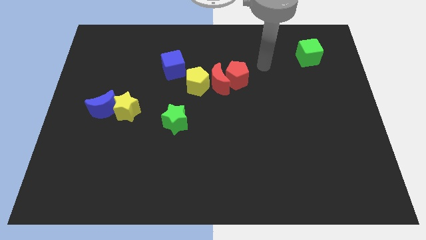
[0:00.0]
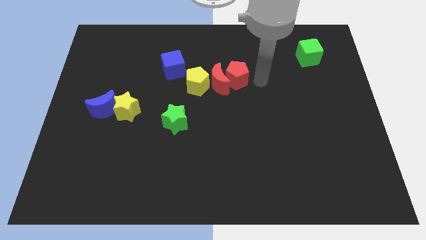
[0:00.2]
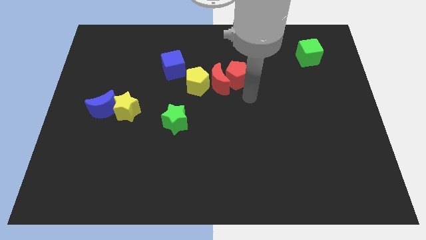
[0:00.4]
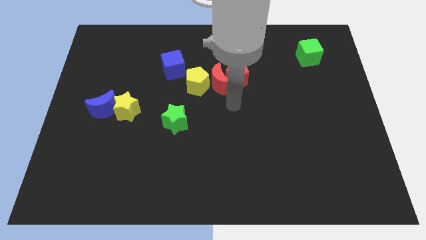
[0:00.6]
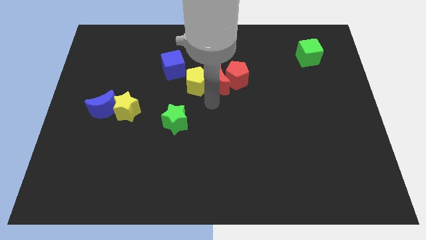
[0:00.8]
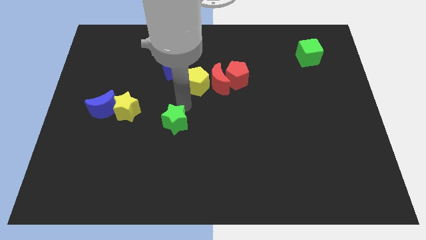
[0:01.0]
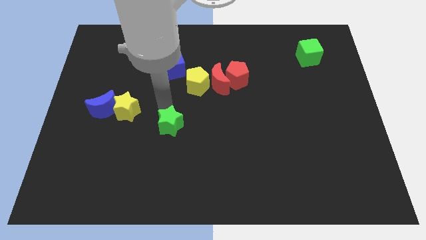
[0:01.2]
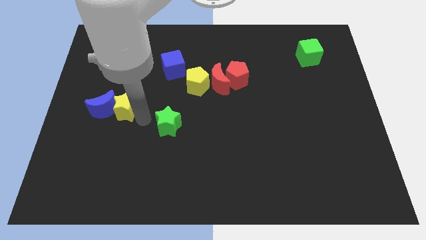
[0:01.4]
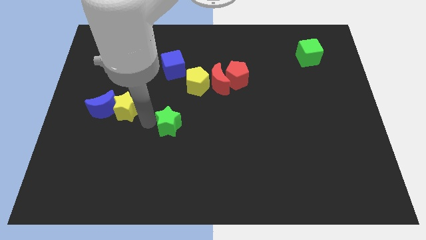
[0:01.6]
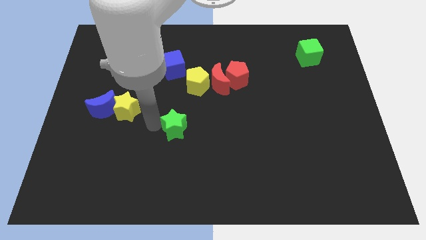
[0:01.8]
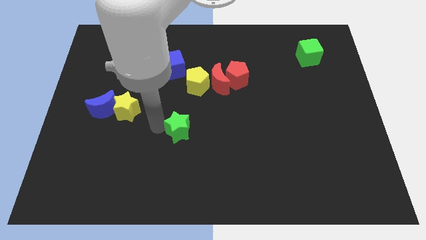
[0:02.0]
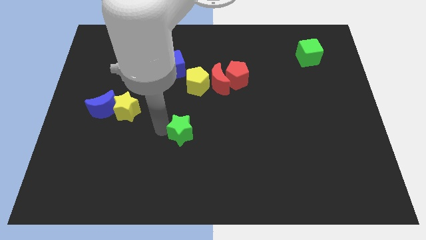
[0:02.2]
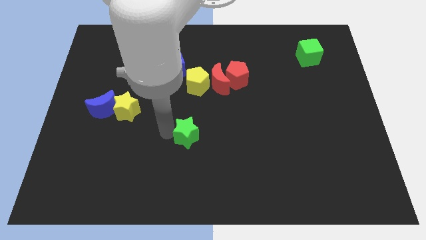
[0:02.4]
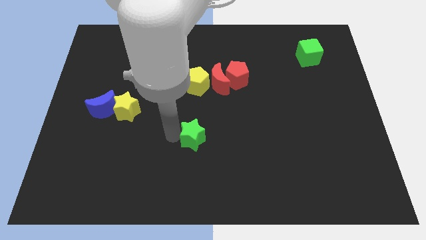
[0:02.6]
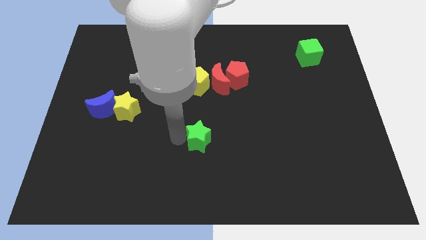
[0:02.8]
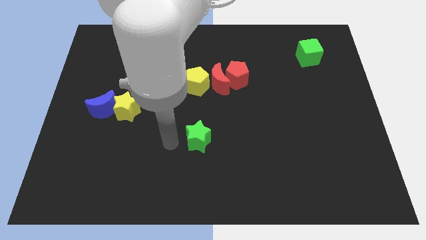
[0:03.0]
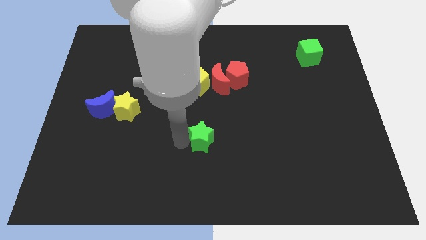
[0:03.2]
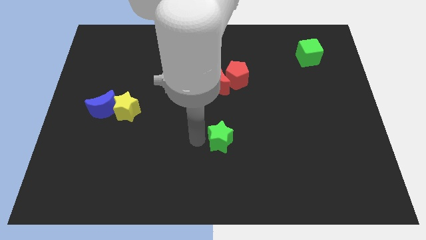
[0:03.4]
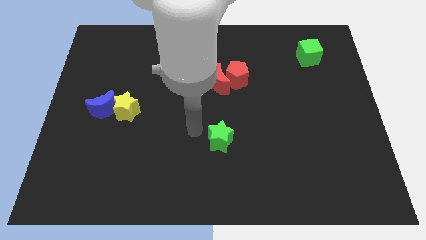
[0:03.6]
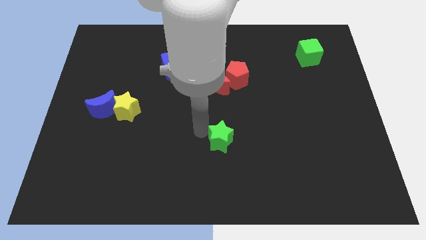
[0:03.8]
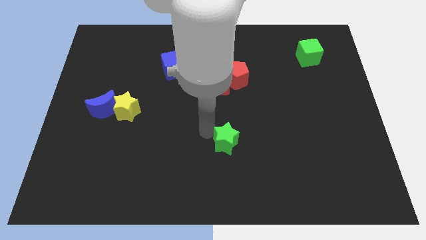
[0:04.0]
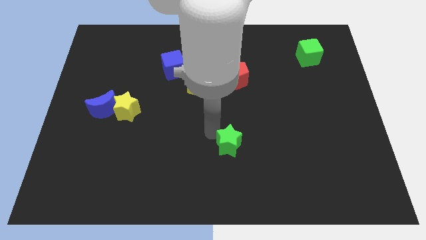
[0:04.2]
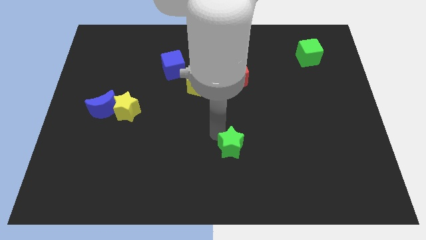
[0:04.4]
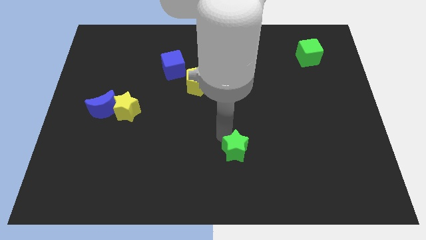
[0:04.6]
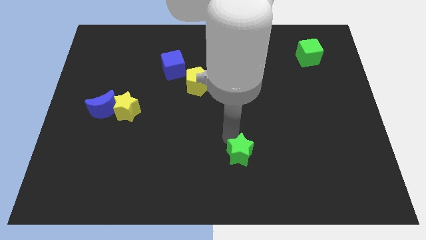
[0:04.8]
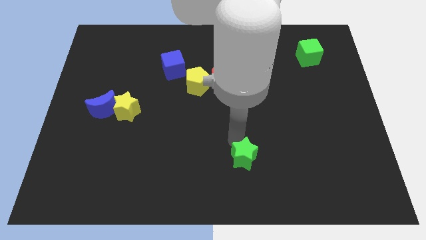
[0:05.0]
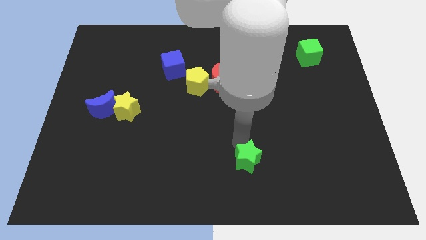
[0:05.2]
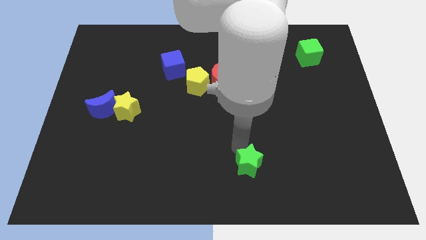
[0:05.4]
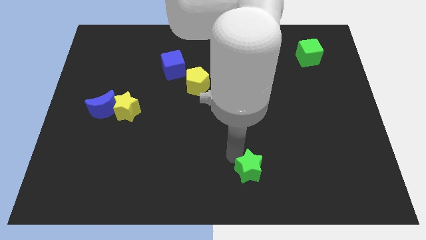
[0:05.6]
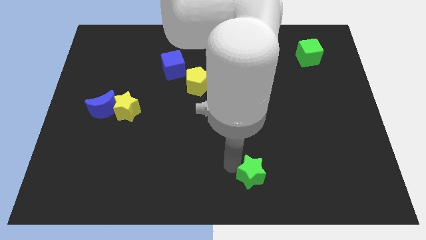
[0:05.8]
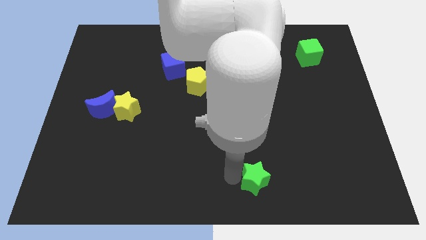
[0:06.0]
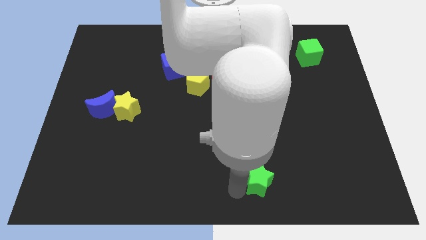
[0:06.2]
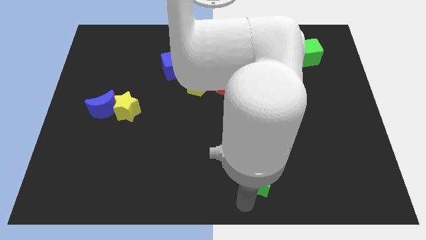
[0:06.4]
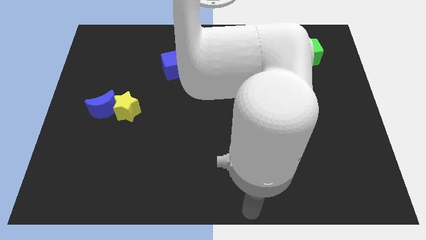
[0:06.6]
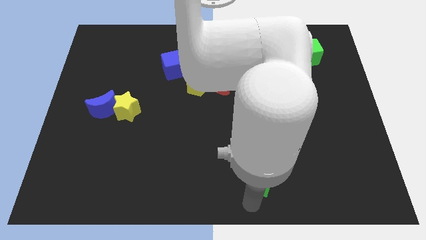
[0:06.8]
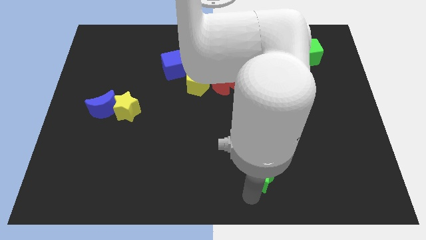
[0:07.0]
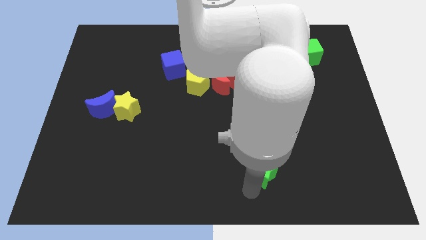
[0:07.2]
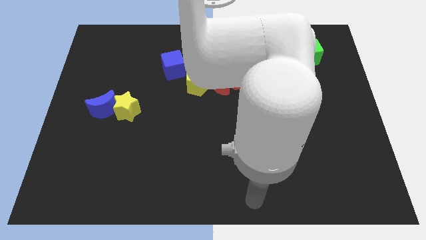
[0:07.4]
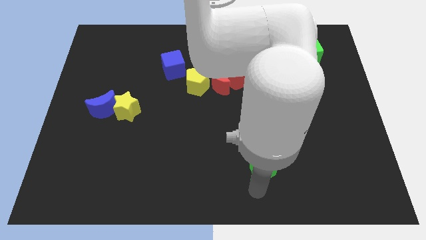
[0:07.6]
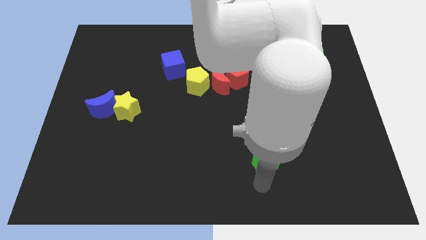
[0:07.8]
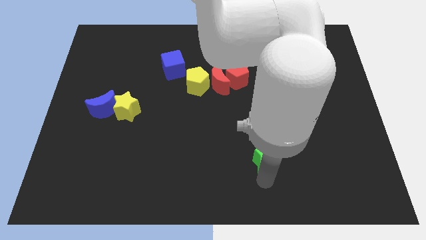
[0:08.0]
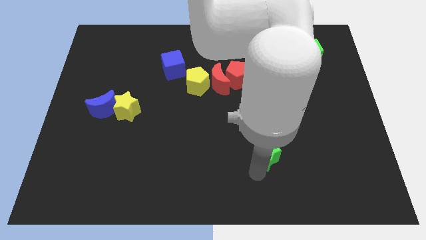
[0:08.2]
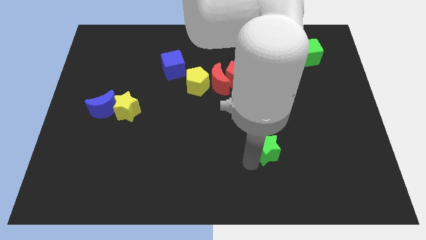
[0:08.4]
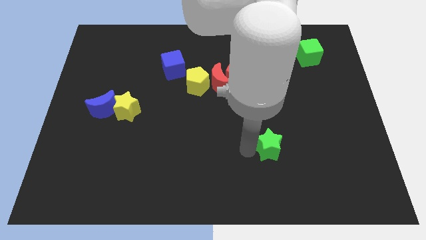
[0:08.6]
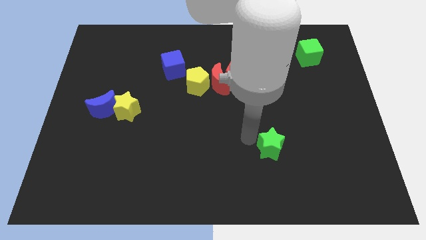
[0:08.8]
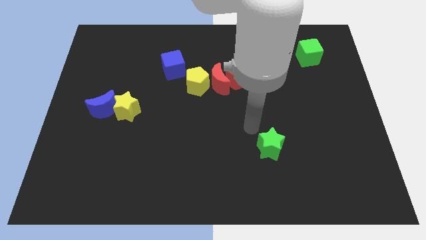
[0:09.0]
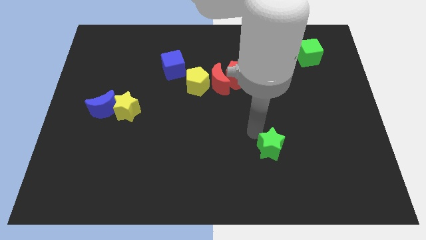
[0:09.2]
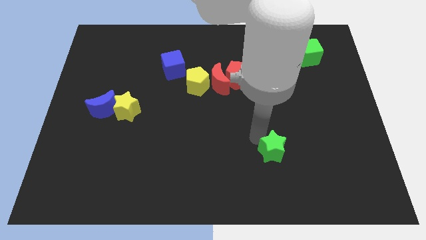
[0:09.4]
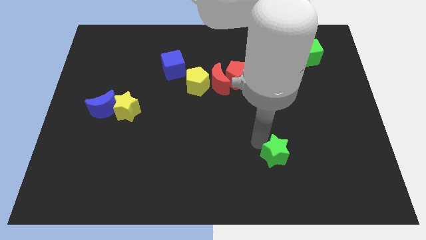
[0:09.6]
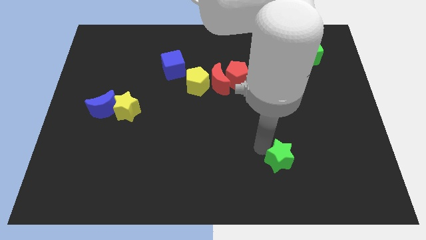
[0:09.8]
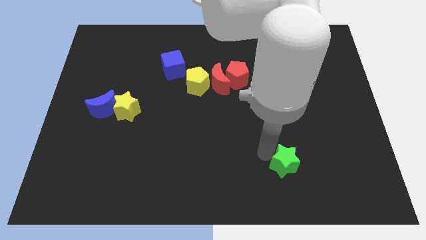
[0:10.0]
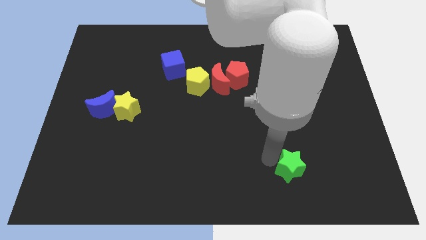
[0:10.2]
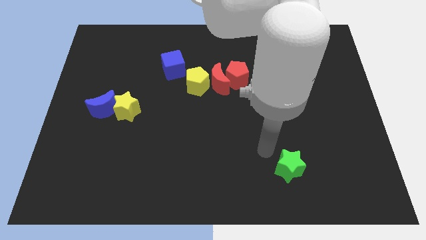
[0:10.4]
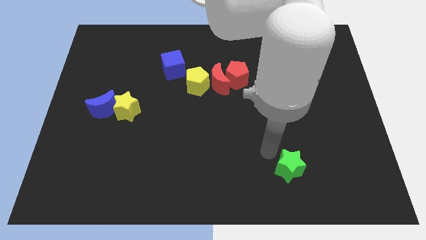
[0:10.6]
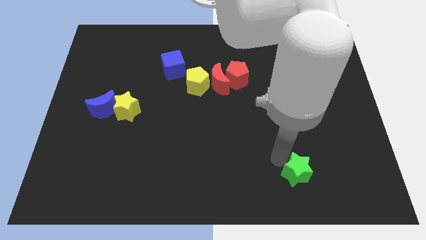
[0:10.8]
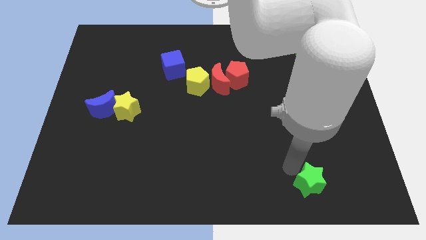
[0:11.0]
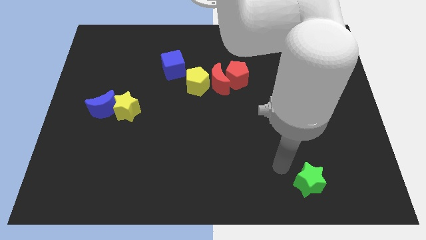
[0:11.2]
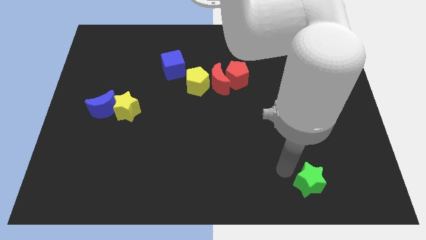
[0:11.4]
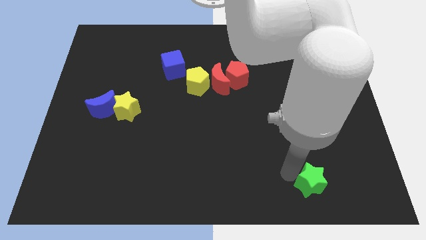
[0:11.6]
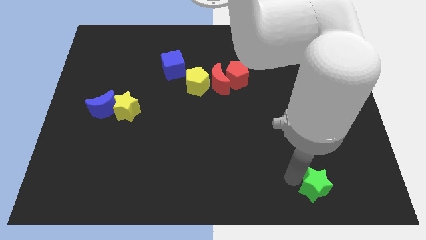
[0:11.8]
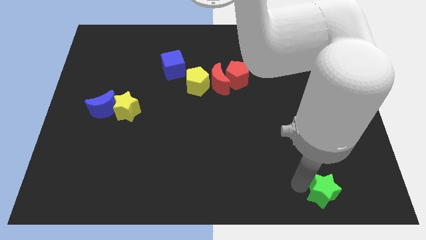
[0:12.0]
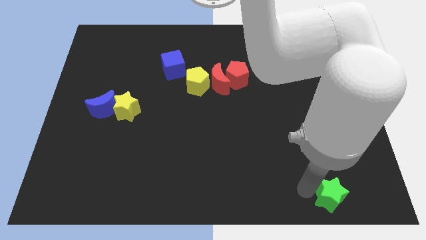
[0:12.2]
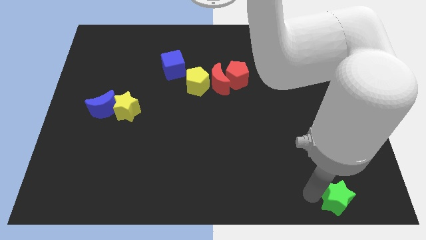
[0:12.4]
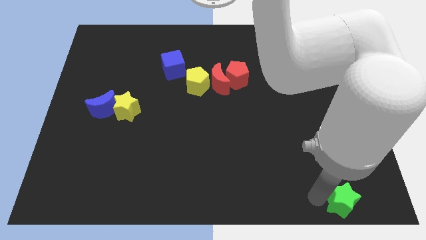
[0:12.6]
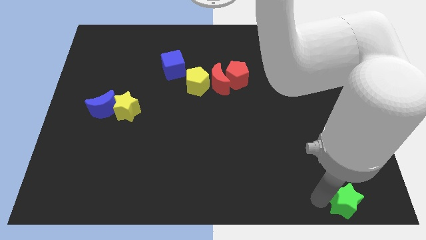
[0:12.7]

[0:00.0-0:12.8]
move the green star to the bottom right
